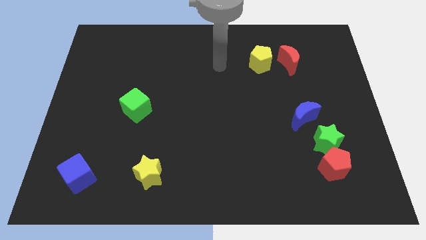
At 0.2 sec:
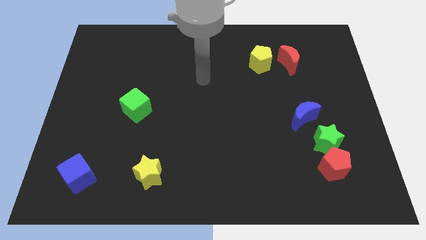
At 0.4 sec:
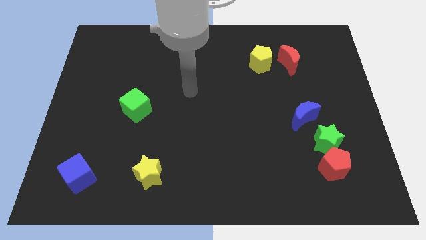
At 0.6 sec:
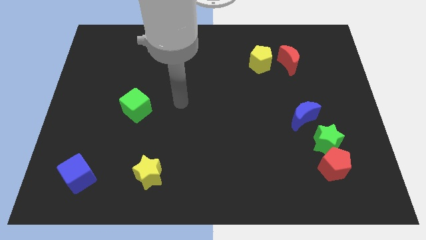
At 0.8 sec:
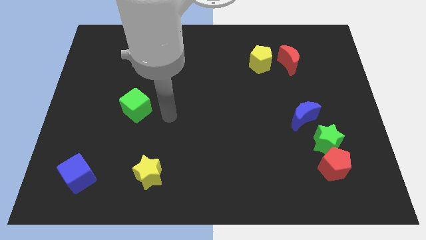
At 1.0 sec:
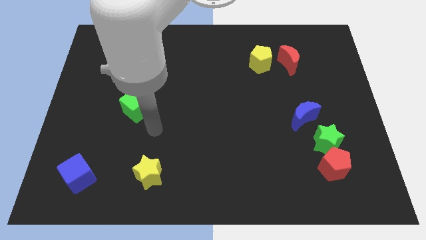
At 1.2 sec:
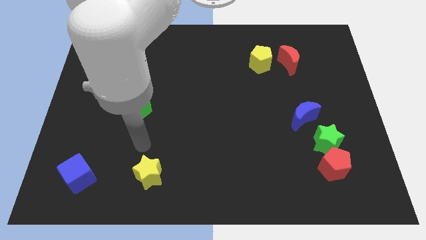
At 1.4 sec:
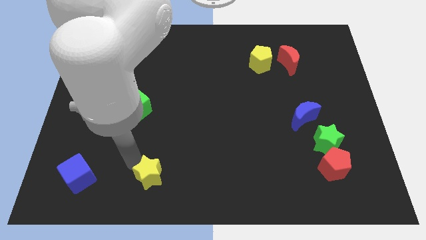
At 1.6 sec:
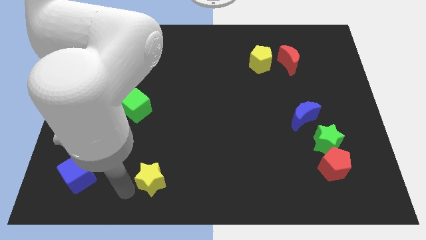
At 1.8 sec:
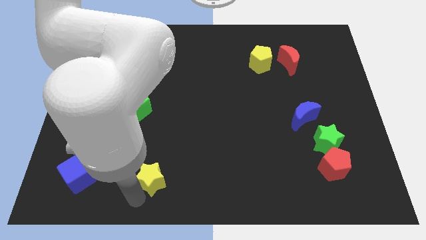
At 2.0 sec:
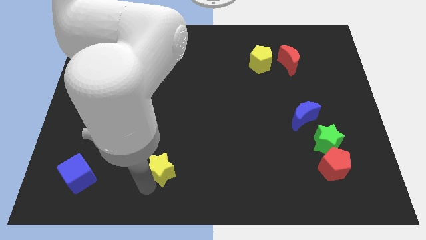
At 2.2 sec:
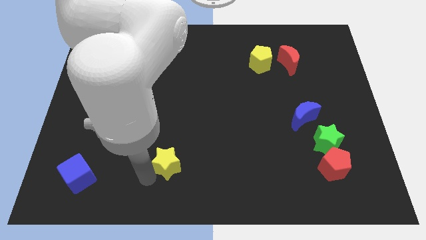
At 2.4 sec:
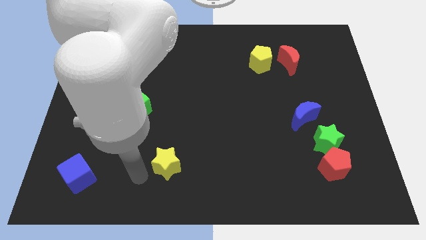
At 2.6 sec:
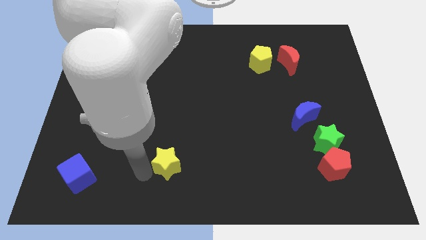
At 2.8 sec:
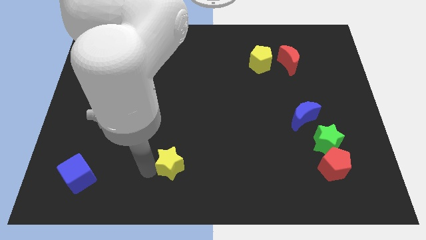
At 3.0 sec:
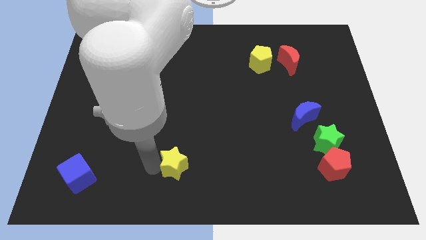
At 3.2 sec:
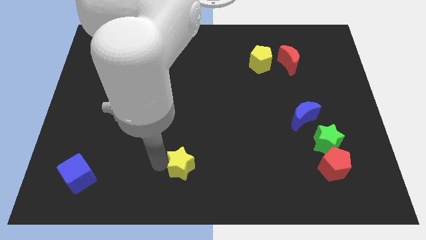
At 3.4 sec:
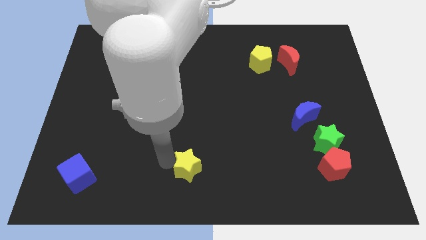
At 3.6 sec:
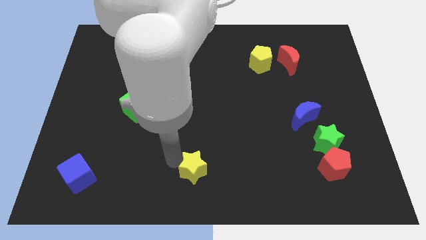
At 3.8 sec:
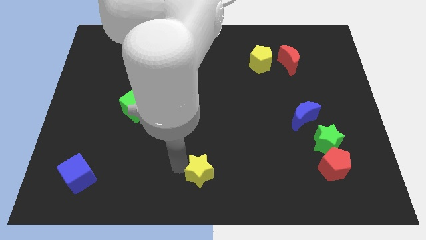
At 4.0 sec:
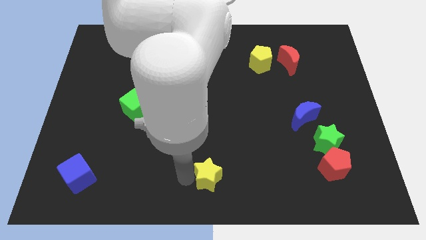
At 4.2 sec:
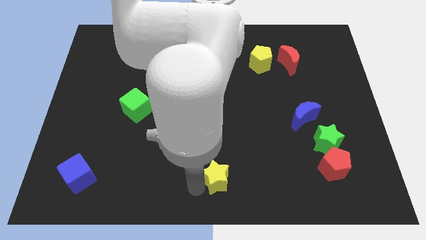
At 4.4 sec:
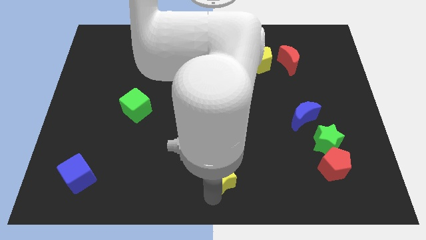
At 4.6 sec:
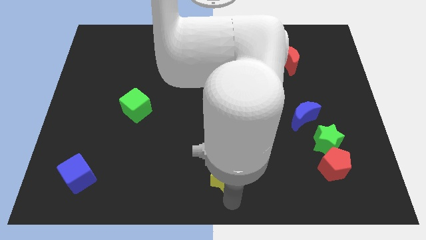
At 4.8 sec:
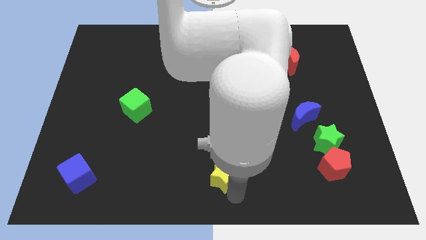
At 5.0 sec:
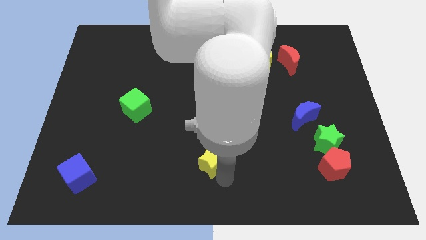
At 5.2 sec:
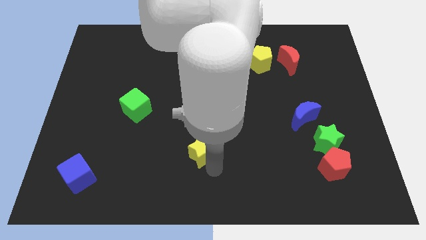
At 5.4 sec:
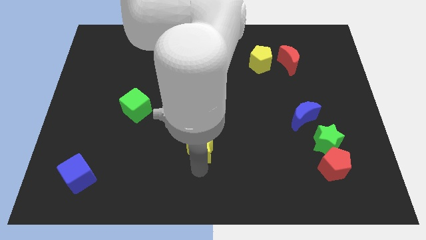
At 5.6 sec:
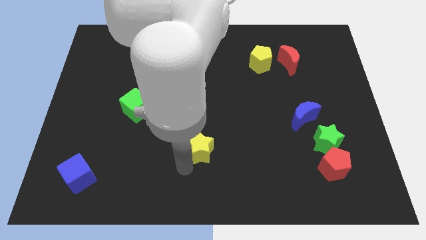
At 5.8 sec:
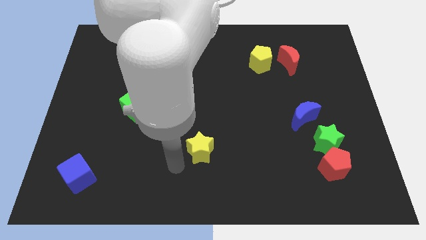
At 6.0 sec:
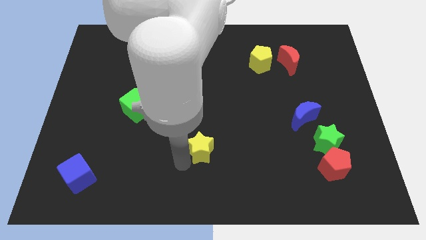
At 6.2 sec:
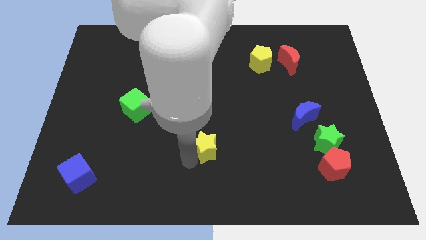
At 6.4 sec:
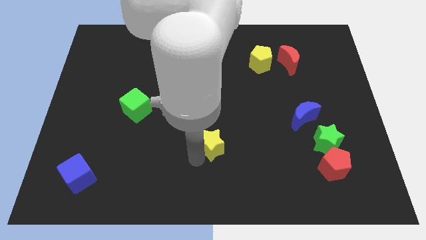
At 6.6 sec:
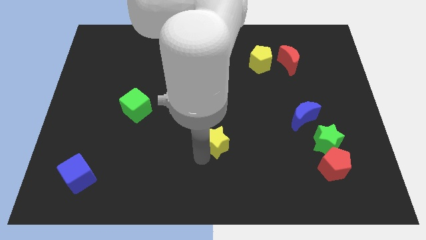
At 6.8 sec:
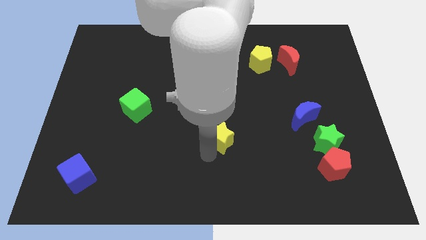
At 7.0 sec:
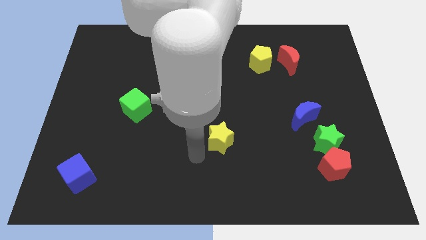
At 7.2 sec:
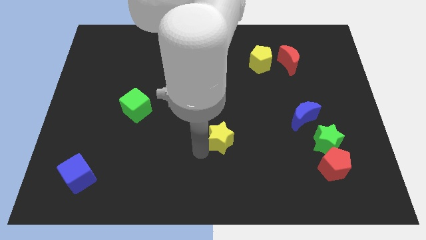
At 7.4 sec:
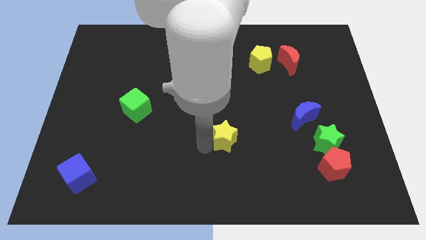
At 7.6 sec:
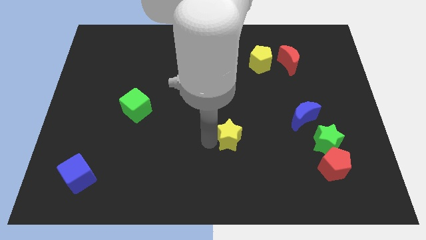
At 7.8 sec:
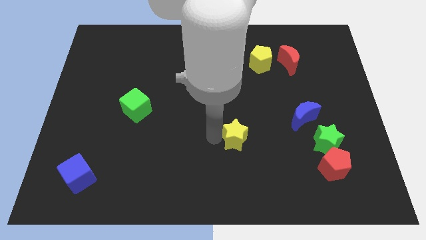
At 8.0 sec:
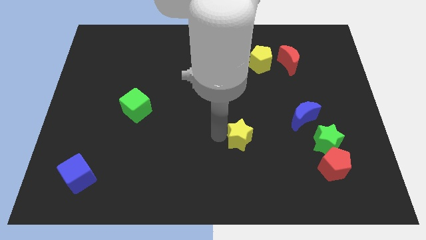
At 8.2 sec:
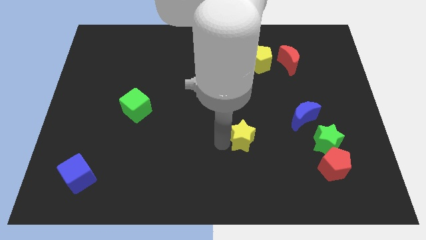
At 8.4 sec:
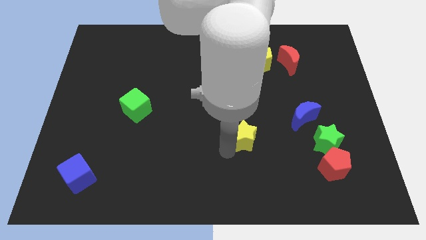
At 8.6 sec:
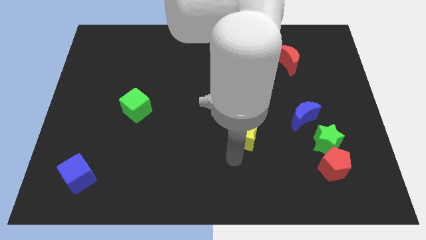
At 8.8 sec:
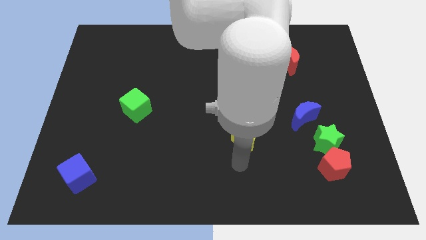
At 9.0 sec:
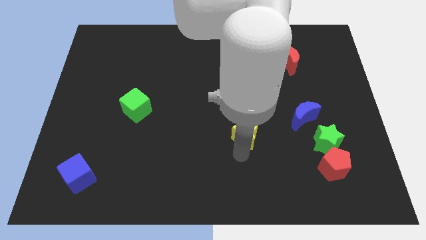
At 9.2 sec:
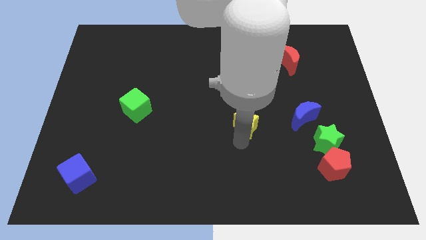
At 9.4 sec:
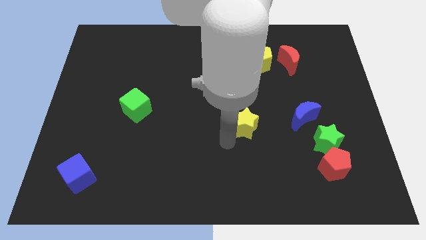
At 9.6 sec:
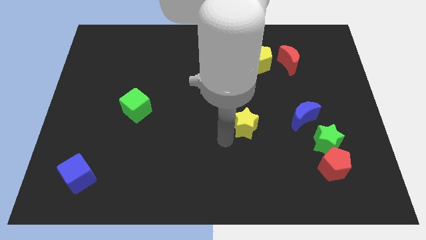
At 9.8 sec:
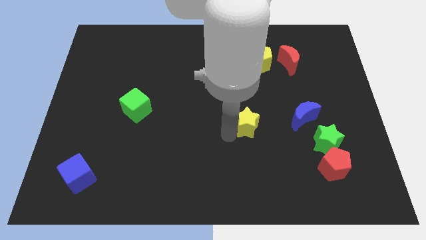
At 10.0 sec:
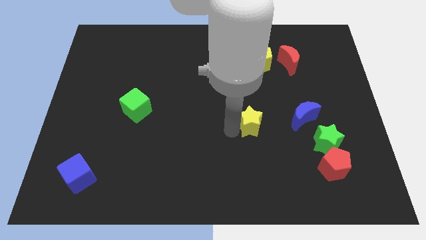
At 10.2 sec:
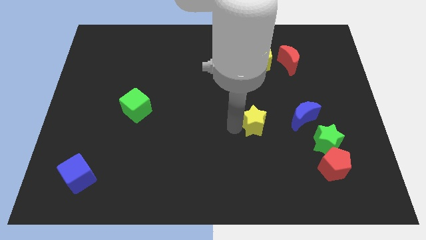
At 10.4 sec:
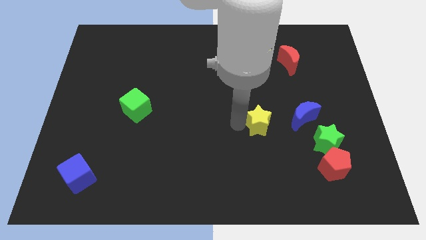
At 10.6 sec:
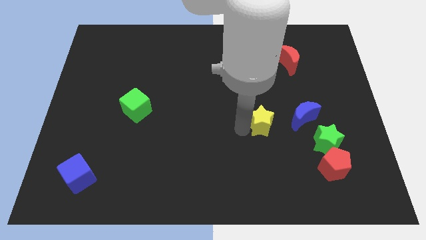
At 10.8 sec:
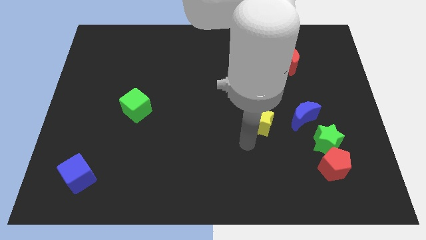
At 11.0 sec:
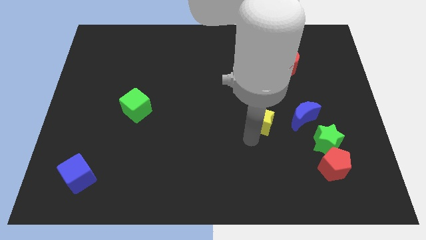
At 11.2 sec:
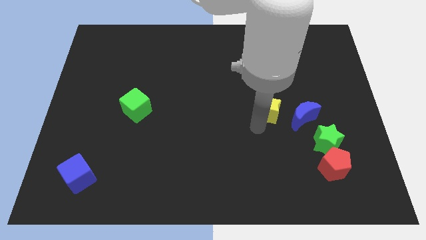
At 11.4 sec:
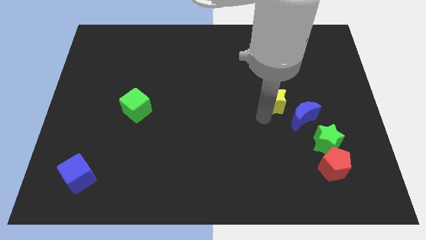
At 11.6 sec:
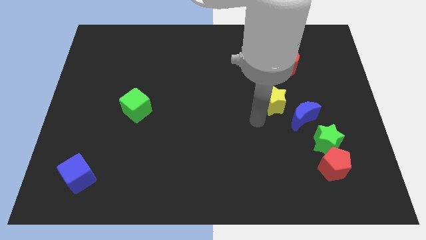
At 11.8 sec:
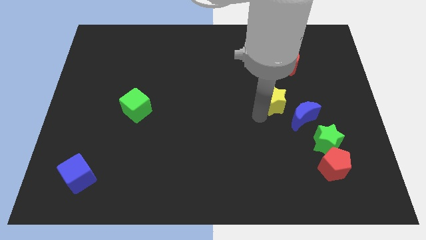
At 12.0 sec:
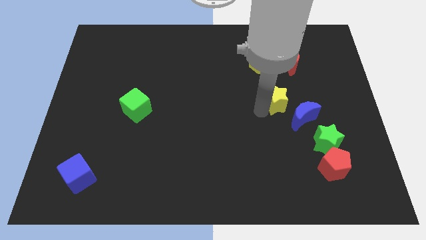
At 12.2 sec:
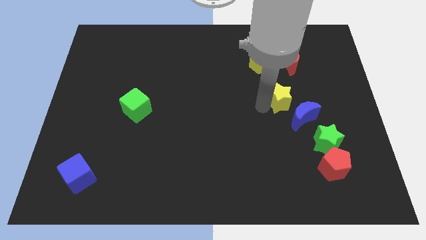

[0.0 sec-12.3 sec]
slide the yellow star above the blue moon

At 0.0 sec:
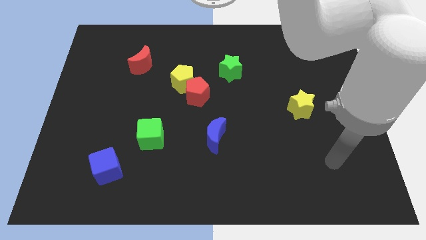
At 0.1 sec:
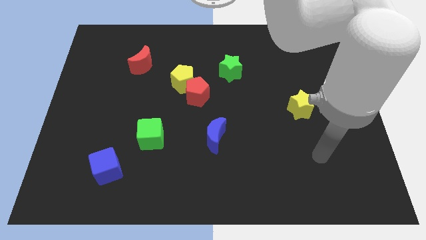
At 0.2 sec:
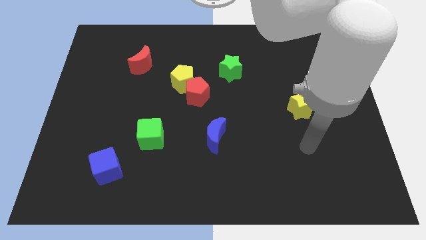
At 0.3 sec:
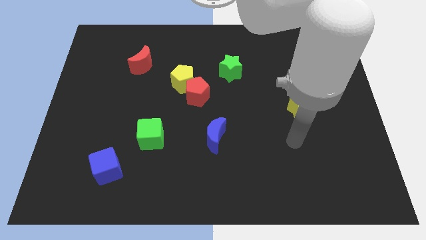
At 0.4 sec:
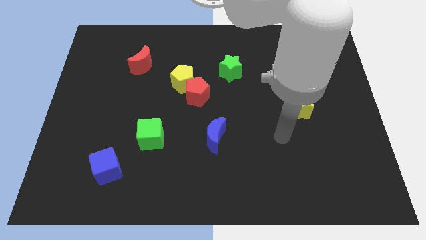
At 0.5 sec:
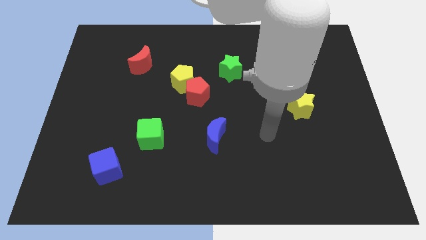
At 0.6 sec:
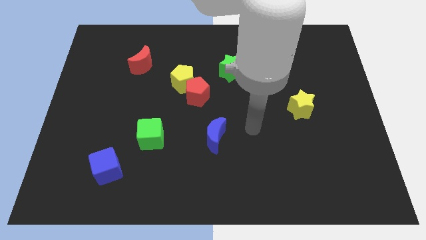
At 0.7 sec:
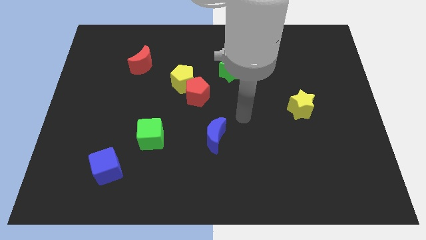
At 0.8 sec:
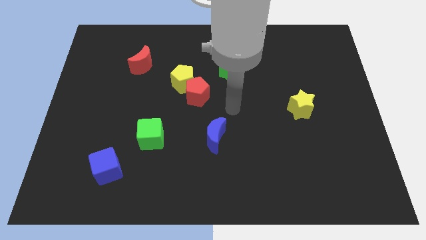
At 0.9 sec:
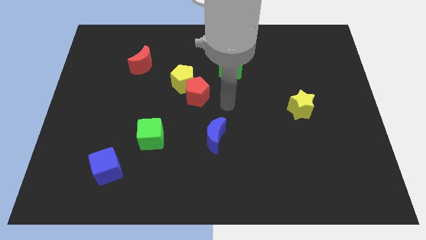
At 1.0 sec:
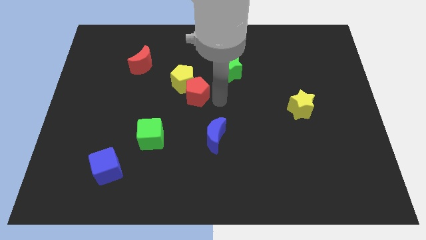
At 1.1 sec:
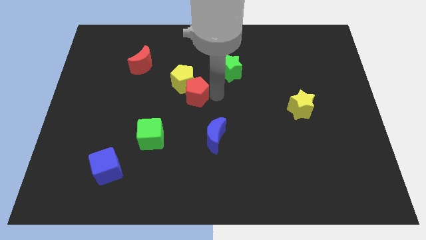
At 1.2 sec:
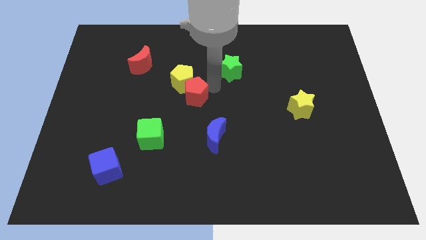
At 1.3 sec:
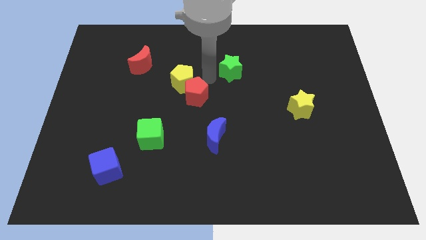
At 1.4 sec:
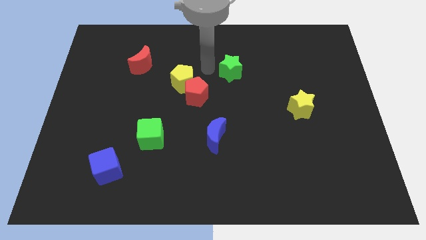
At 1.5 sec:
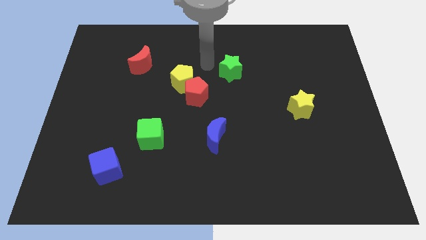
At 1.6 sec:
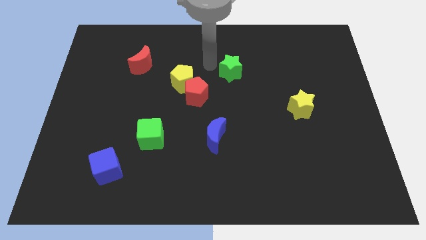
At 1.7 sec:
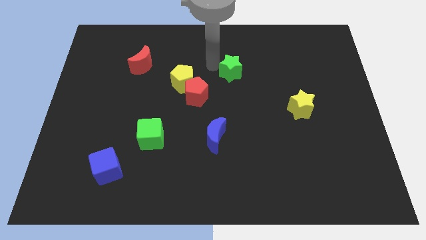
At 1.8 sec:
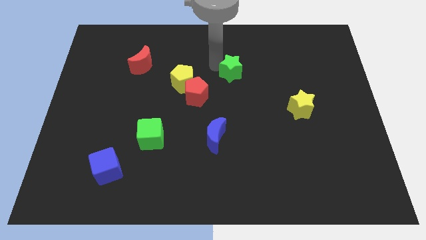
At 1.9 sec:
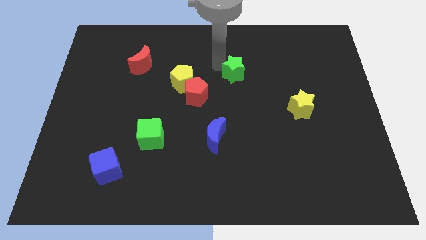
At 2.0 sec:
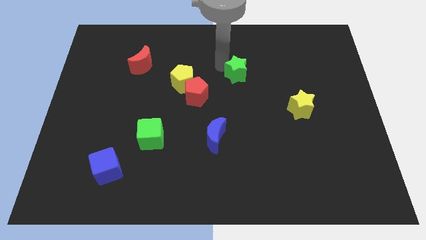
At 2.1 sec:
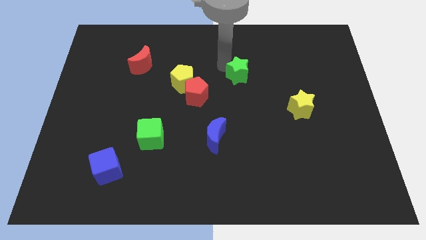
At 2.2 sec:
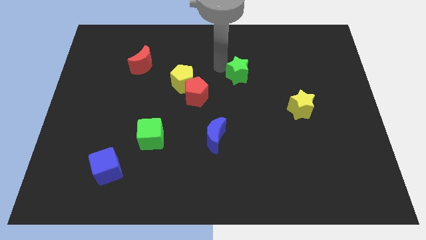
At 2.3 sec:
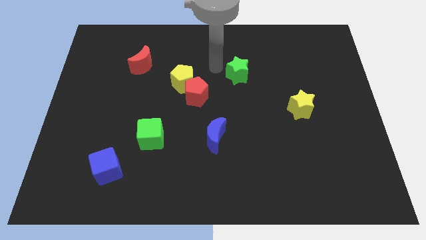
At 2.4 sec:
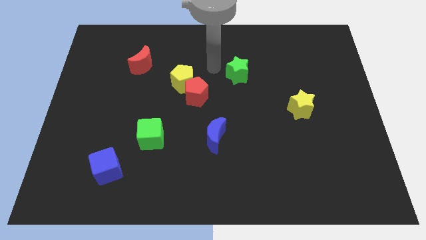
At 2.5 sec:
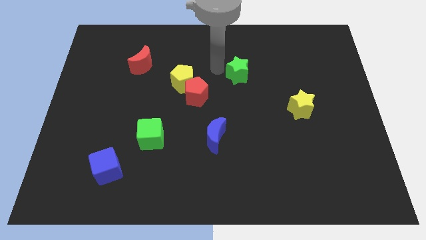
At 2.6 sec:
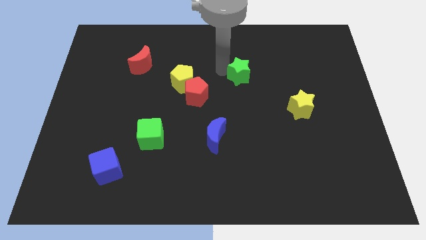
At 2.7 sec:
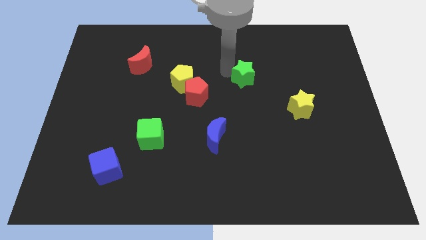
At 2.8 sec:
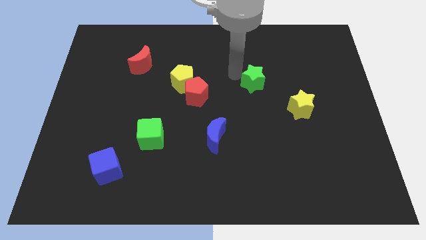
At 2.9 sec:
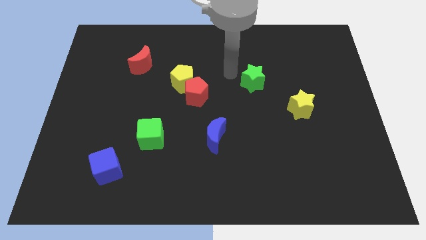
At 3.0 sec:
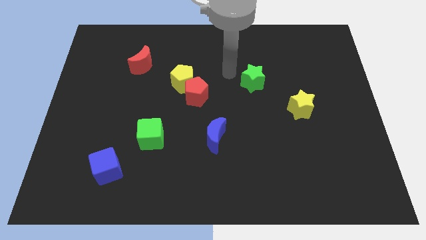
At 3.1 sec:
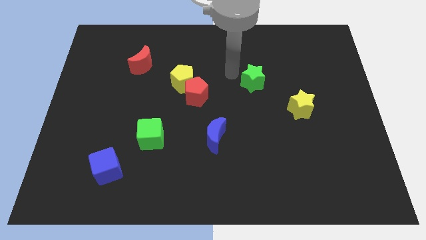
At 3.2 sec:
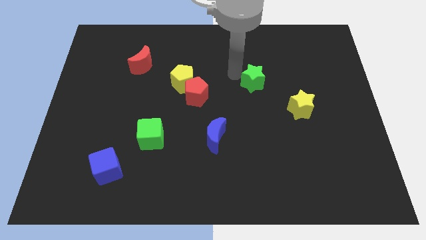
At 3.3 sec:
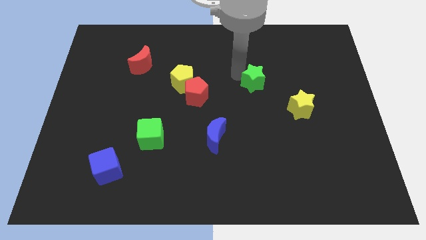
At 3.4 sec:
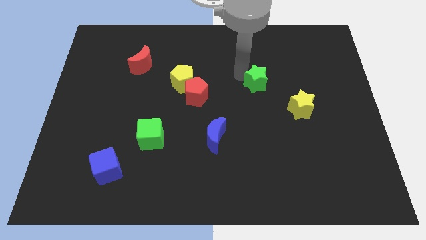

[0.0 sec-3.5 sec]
put the green star diagonally up and to the left of the yellow star
